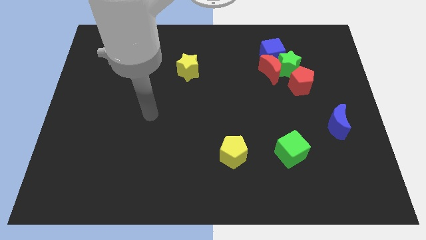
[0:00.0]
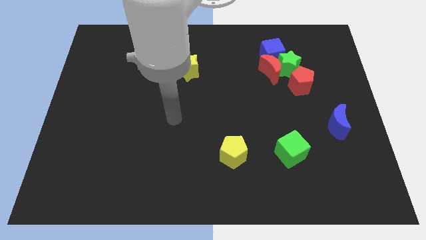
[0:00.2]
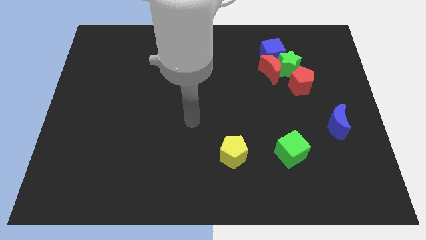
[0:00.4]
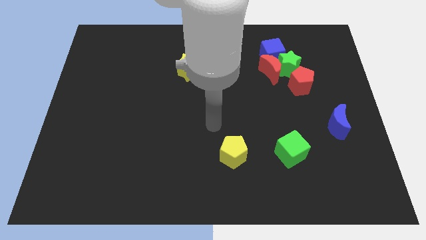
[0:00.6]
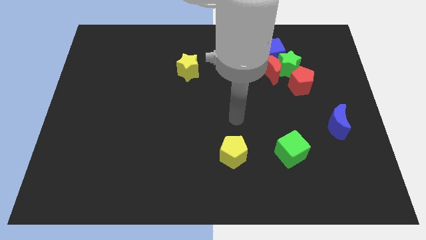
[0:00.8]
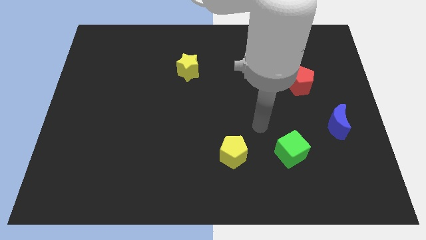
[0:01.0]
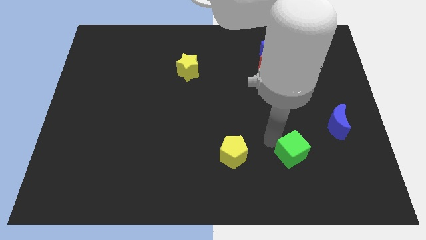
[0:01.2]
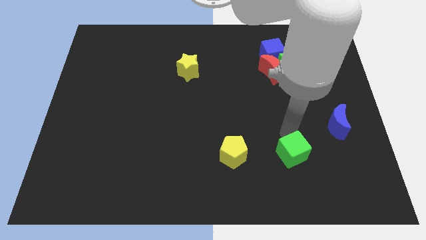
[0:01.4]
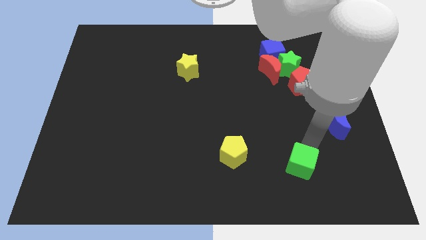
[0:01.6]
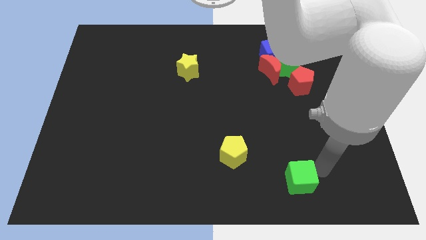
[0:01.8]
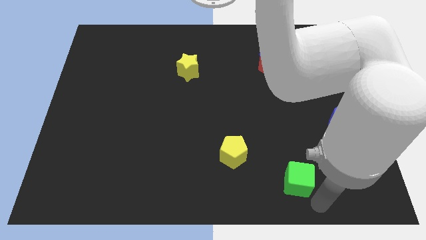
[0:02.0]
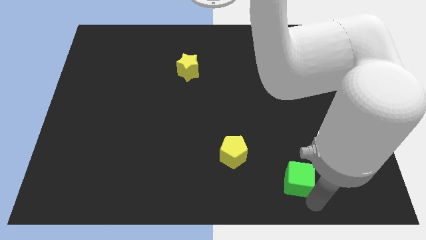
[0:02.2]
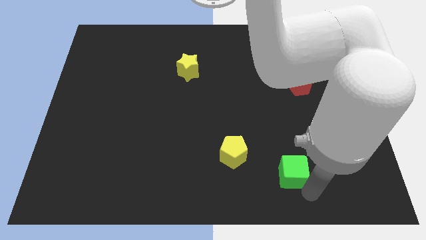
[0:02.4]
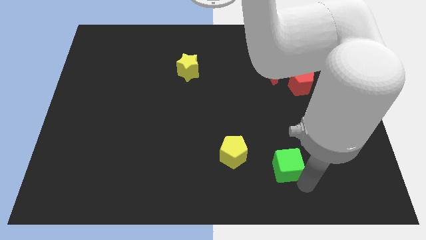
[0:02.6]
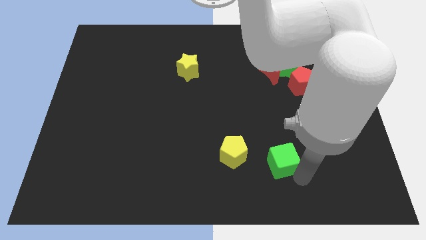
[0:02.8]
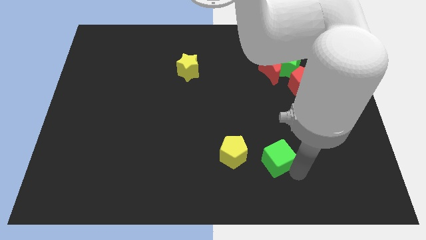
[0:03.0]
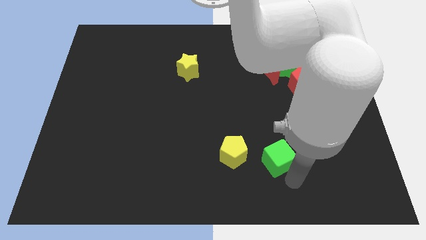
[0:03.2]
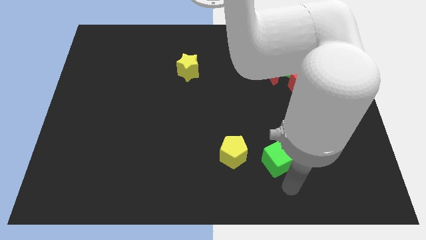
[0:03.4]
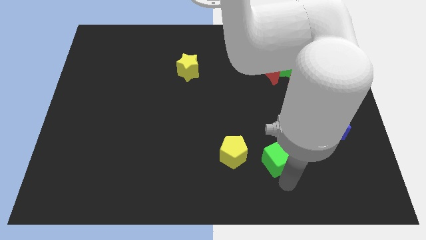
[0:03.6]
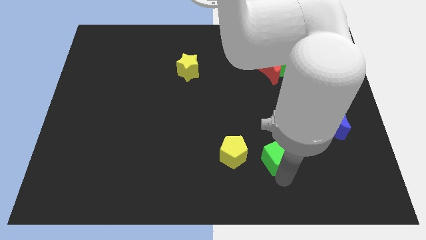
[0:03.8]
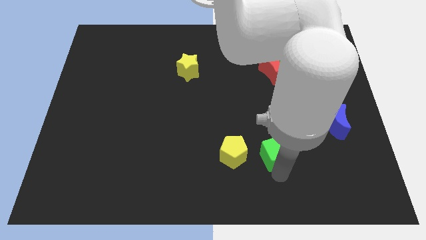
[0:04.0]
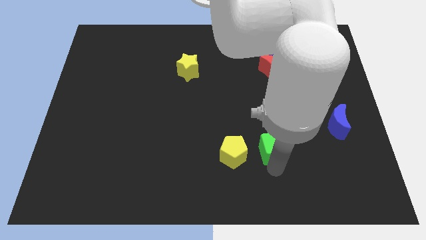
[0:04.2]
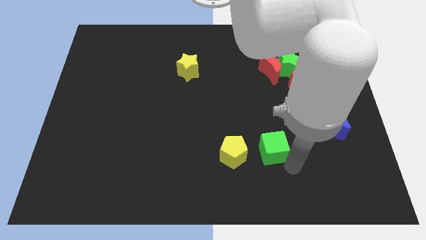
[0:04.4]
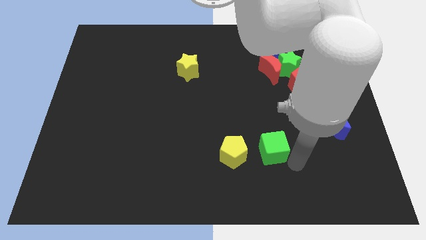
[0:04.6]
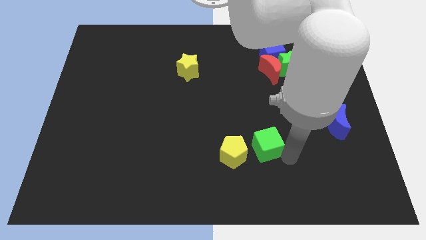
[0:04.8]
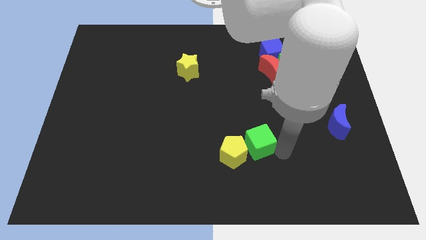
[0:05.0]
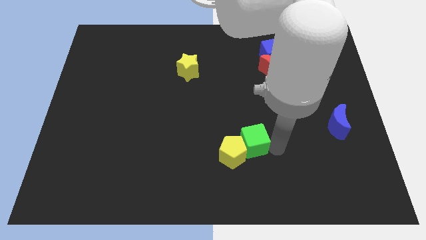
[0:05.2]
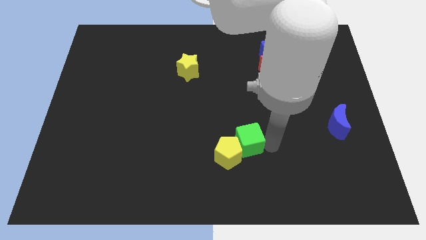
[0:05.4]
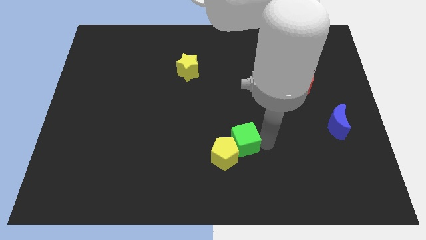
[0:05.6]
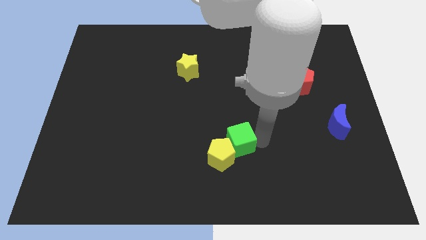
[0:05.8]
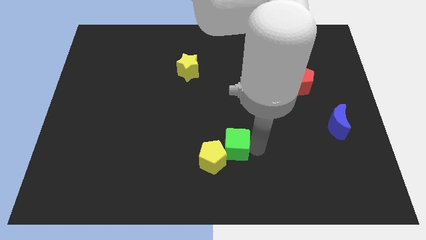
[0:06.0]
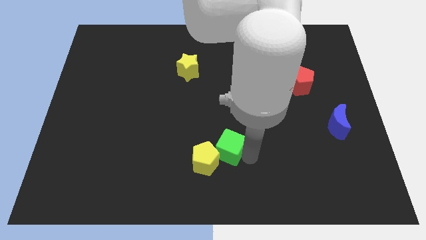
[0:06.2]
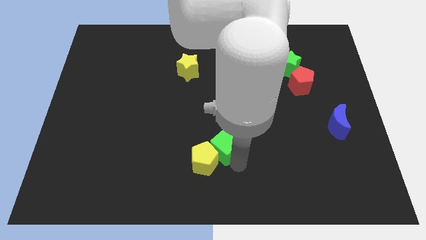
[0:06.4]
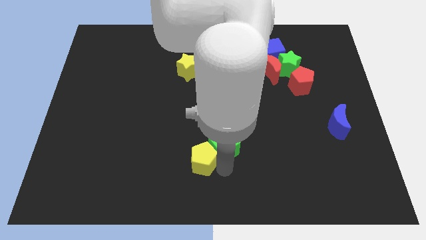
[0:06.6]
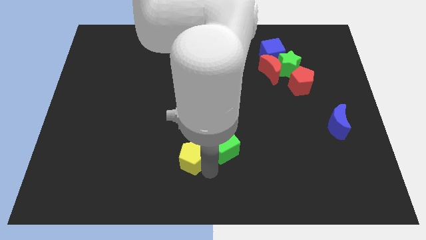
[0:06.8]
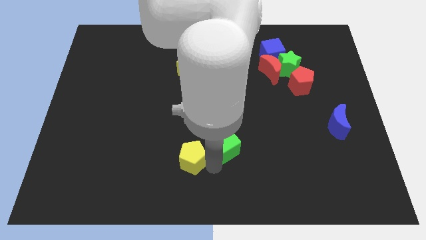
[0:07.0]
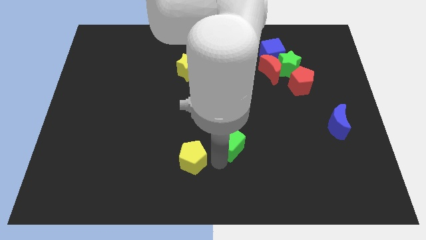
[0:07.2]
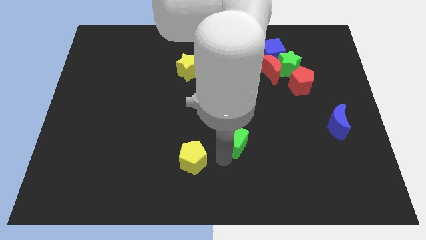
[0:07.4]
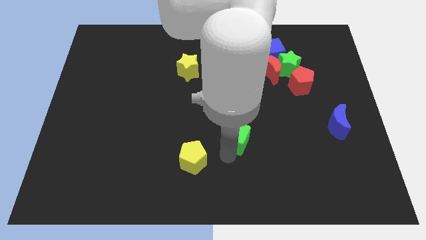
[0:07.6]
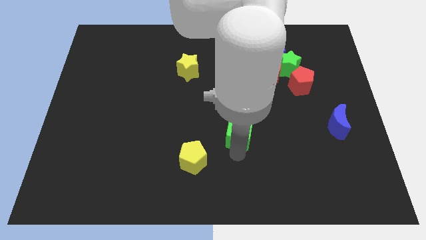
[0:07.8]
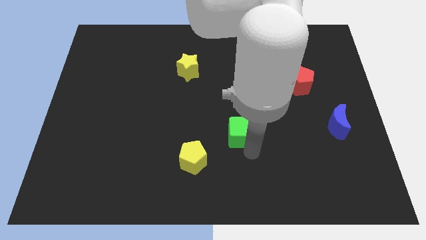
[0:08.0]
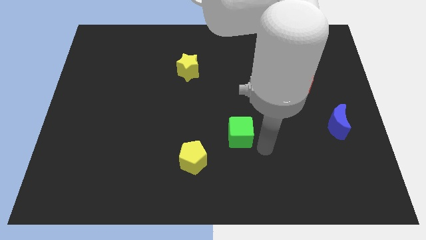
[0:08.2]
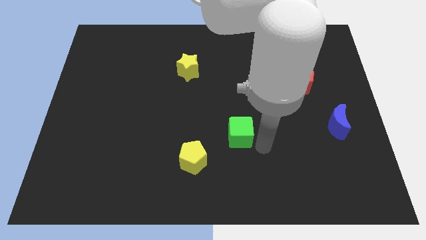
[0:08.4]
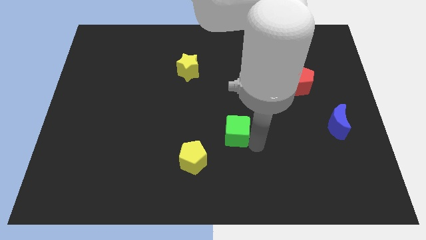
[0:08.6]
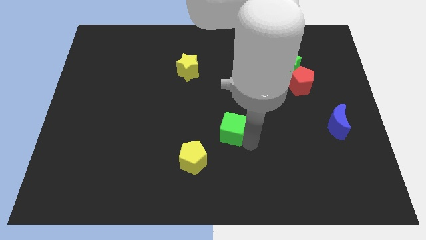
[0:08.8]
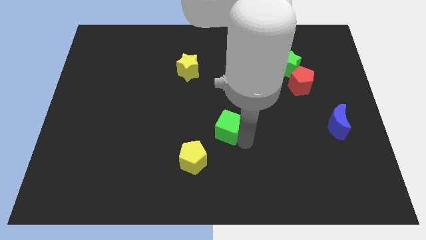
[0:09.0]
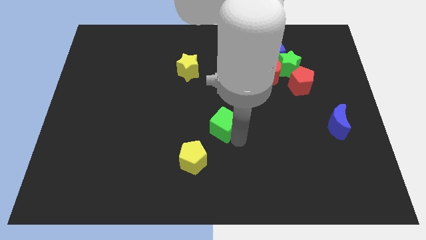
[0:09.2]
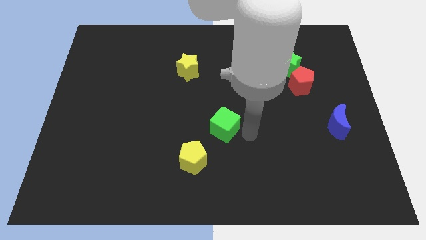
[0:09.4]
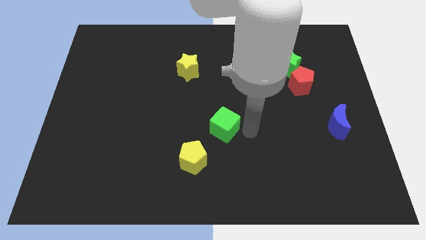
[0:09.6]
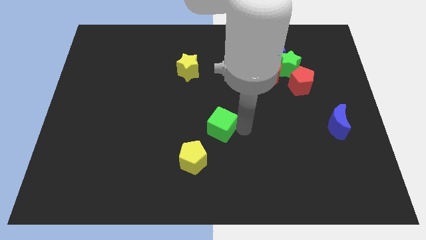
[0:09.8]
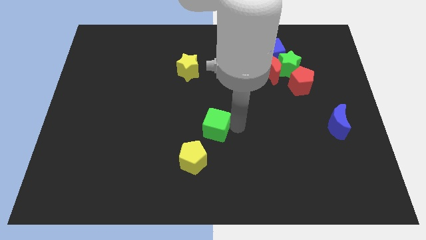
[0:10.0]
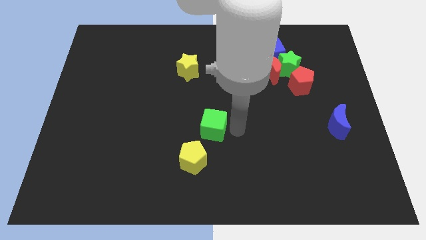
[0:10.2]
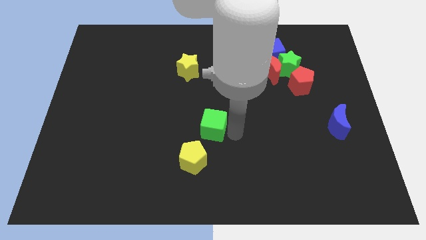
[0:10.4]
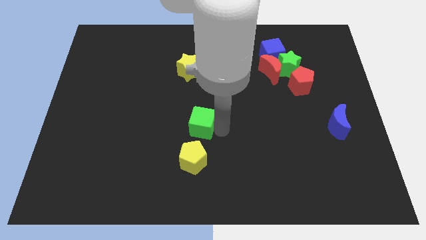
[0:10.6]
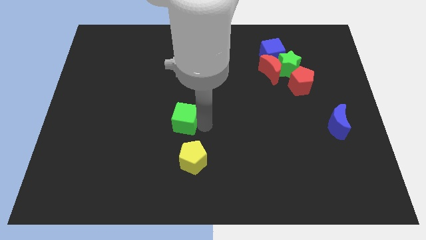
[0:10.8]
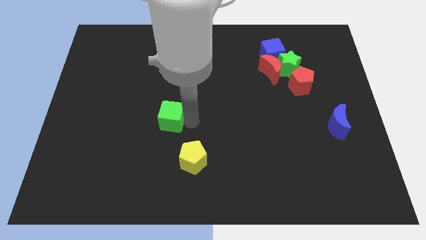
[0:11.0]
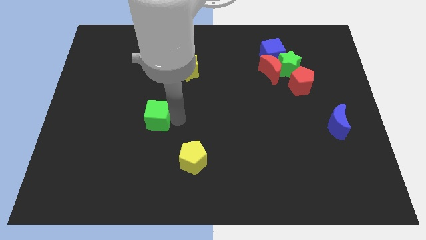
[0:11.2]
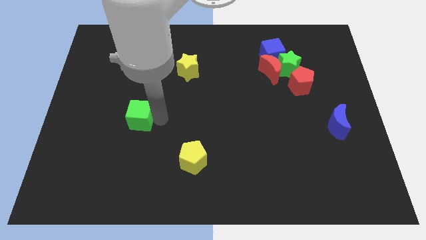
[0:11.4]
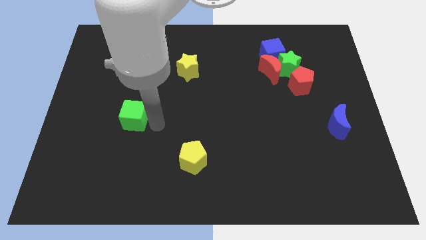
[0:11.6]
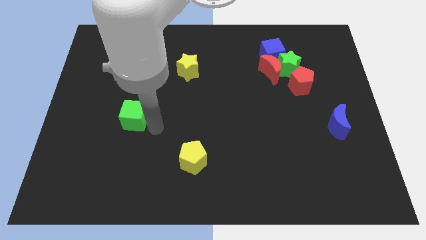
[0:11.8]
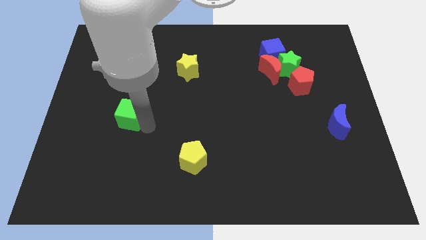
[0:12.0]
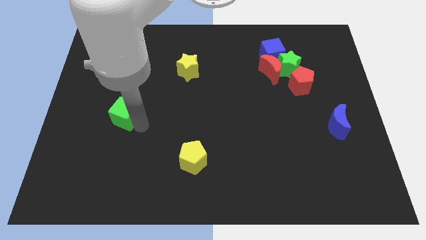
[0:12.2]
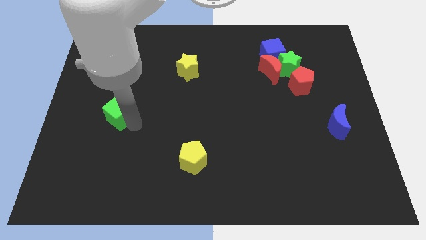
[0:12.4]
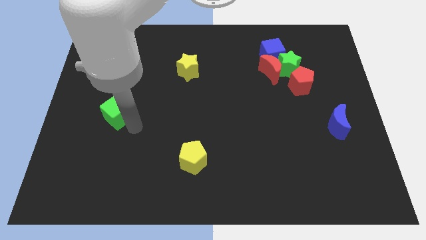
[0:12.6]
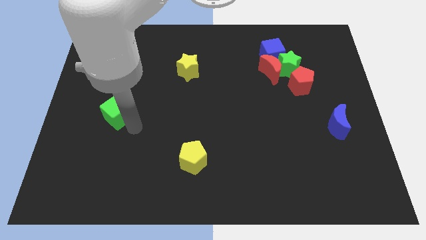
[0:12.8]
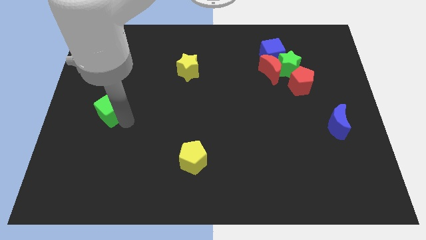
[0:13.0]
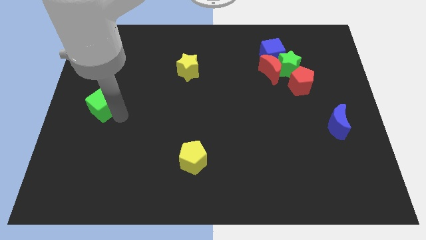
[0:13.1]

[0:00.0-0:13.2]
move the green cube to the center left

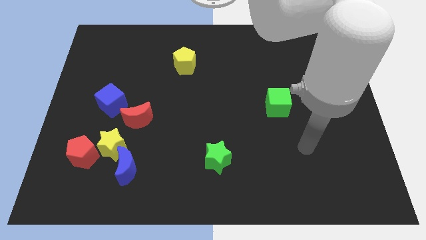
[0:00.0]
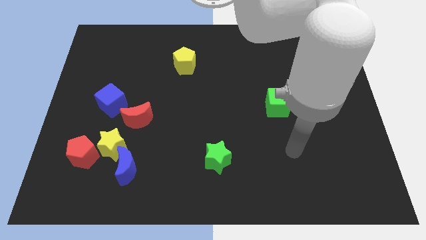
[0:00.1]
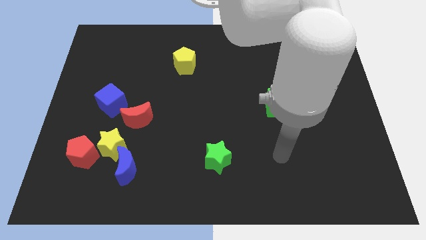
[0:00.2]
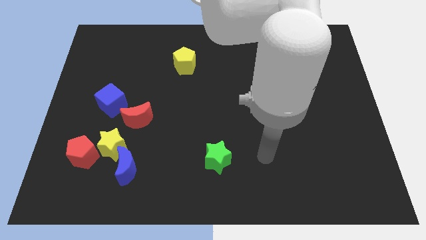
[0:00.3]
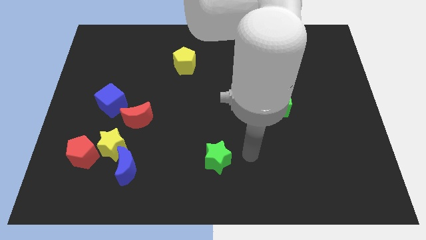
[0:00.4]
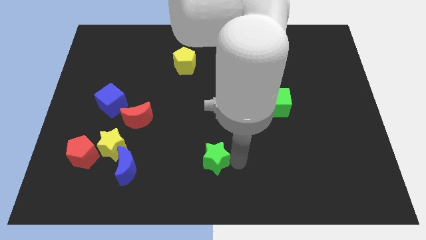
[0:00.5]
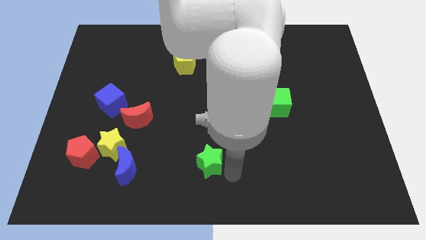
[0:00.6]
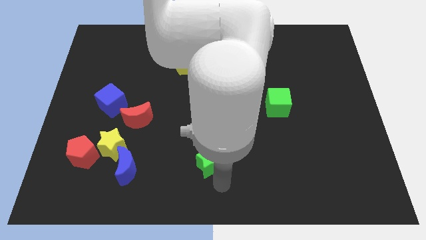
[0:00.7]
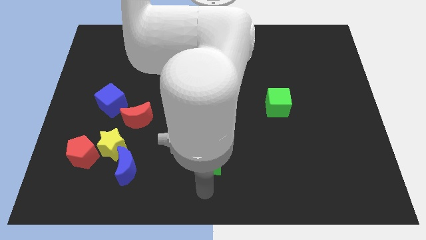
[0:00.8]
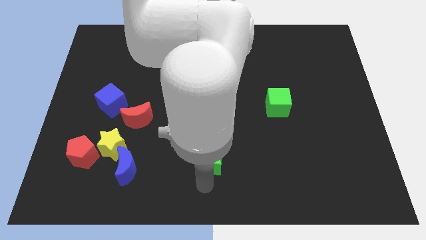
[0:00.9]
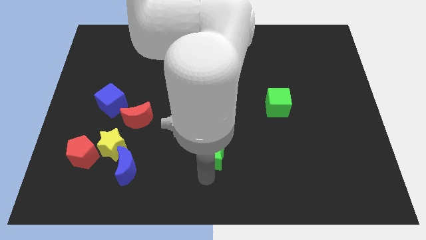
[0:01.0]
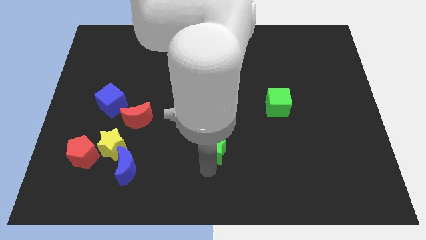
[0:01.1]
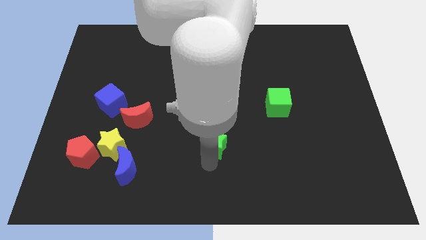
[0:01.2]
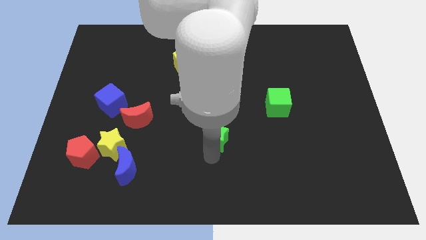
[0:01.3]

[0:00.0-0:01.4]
slide the green star to the center
